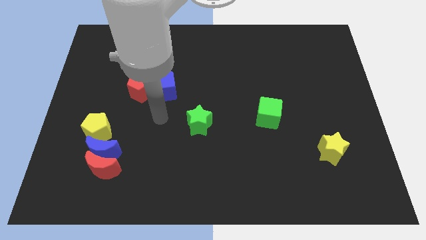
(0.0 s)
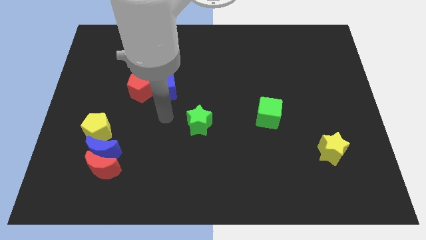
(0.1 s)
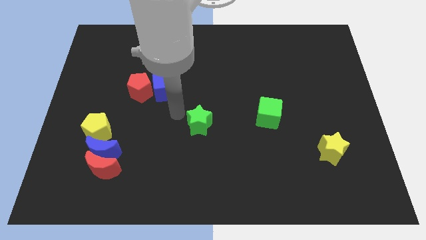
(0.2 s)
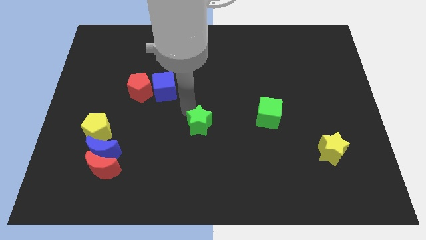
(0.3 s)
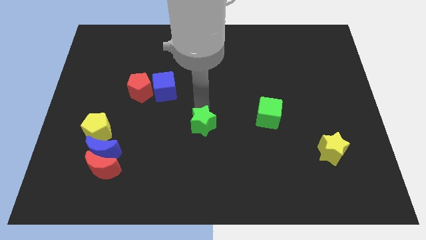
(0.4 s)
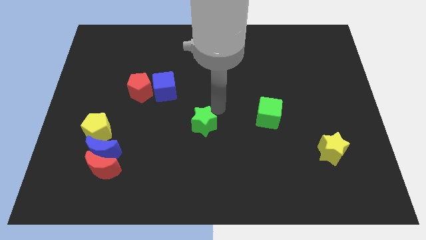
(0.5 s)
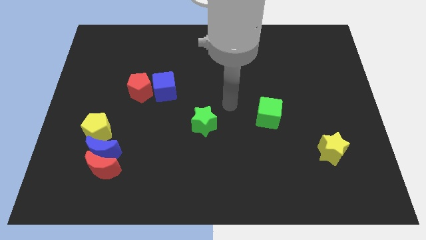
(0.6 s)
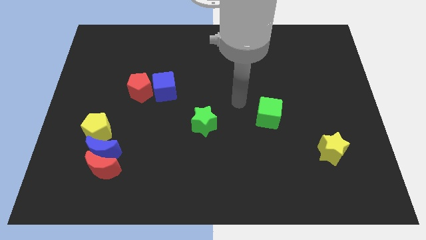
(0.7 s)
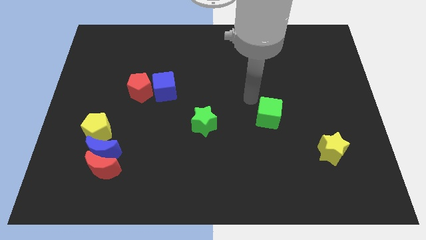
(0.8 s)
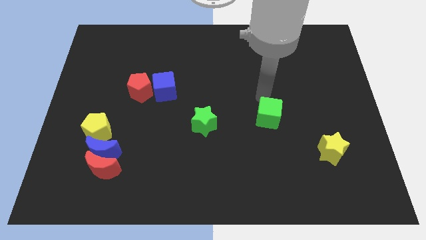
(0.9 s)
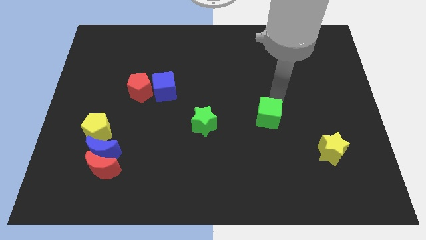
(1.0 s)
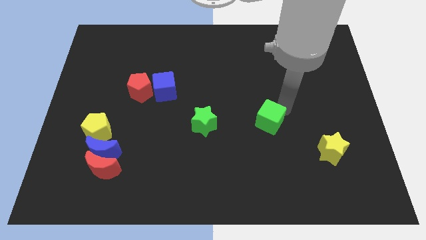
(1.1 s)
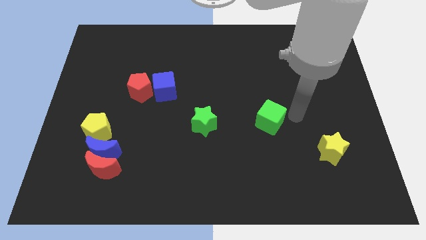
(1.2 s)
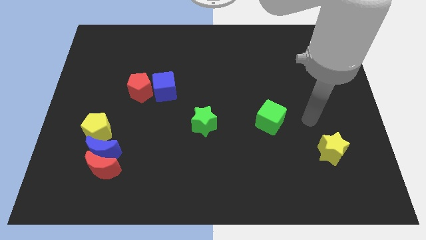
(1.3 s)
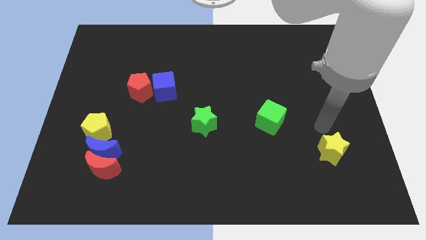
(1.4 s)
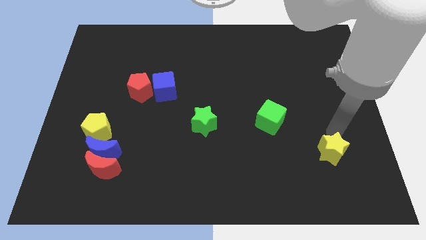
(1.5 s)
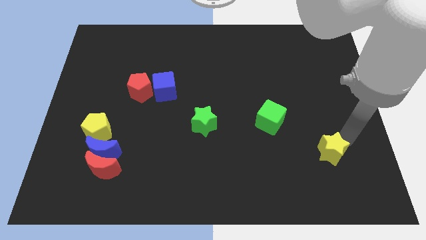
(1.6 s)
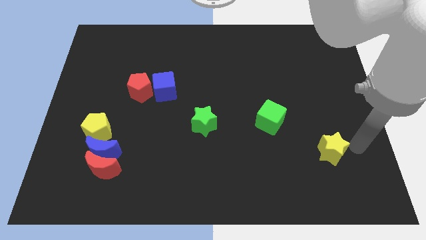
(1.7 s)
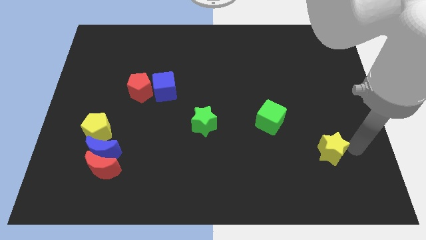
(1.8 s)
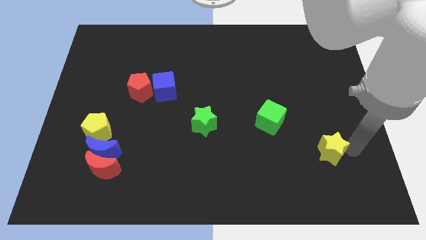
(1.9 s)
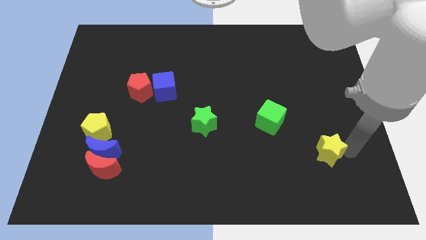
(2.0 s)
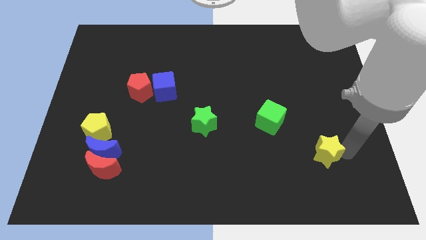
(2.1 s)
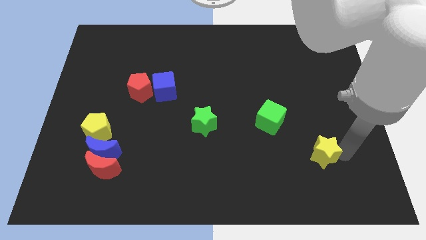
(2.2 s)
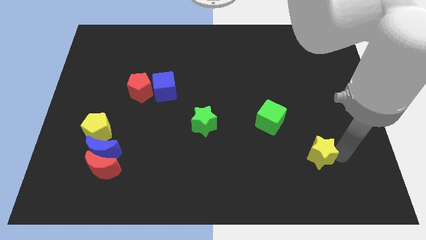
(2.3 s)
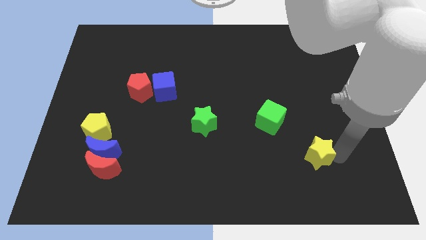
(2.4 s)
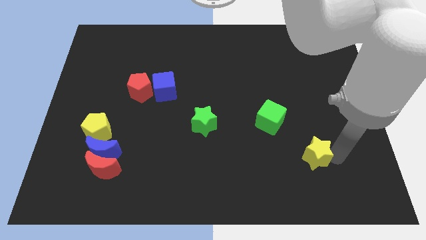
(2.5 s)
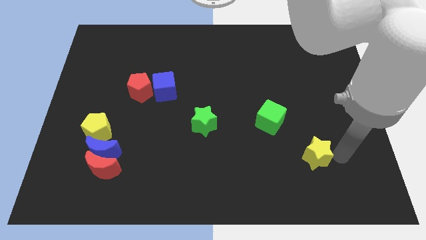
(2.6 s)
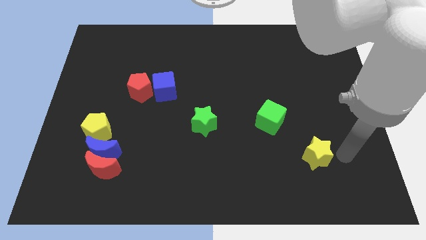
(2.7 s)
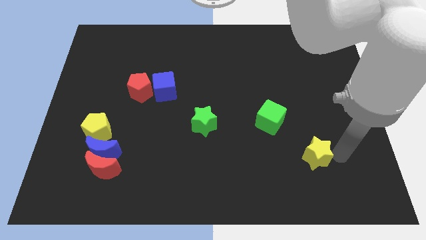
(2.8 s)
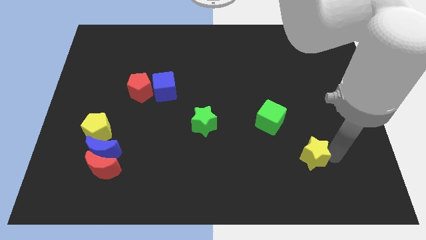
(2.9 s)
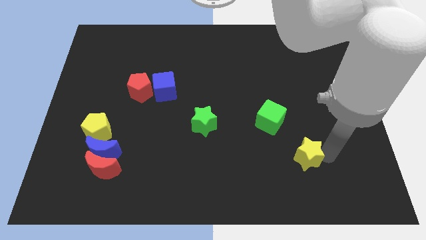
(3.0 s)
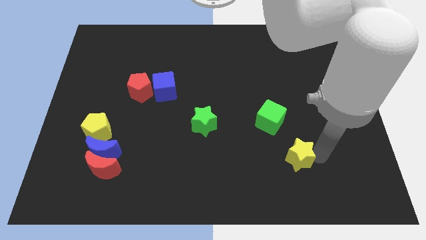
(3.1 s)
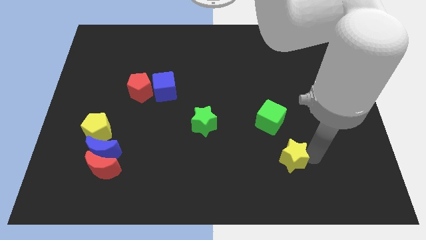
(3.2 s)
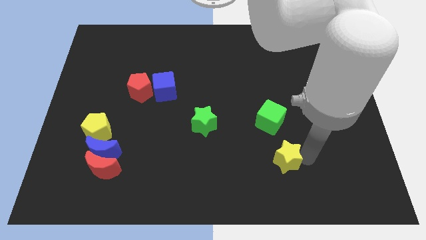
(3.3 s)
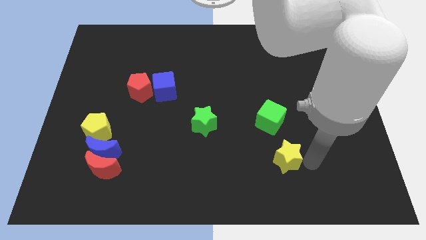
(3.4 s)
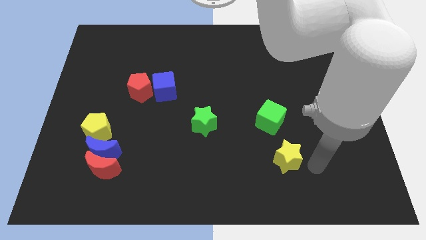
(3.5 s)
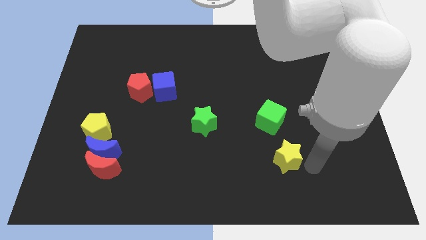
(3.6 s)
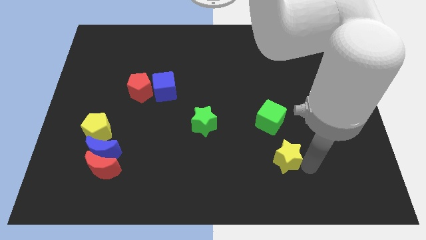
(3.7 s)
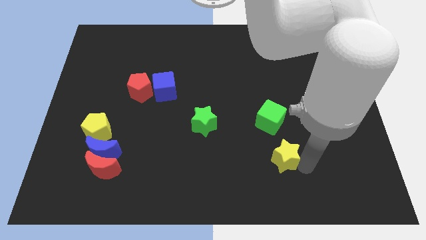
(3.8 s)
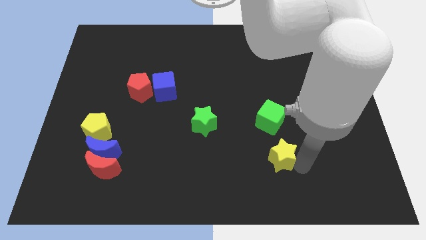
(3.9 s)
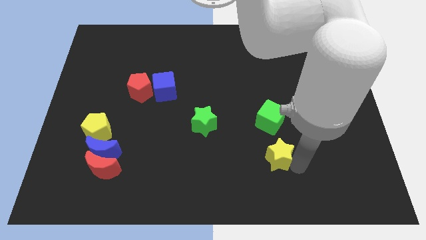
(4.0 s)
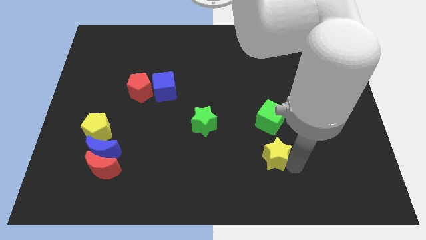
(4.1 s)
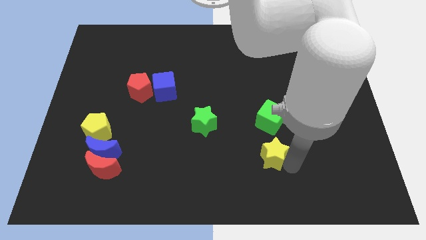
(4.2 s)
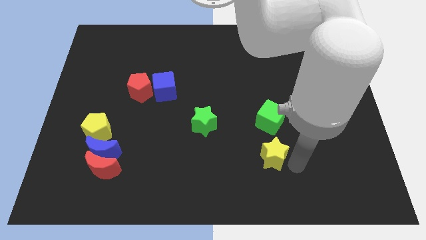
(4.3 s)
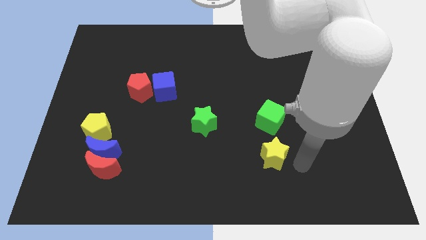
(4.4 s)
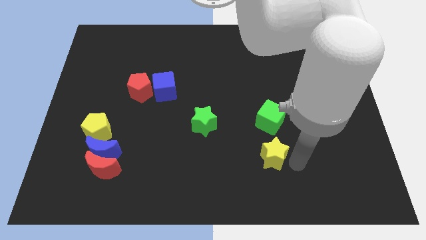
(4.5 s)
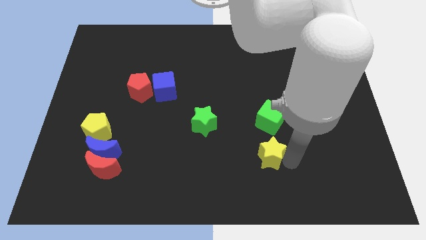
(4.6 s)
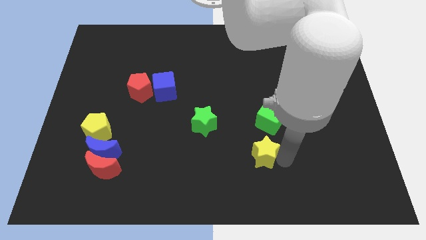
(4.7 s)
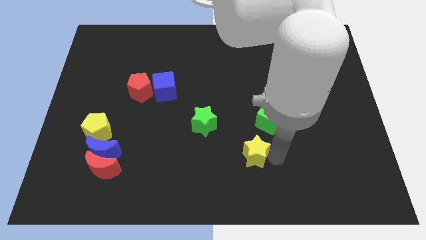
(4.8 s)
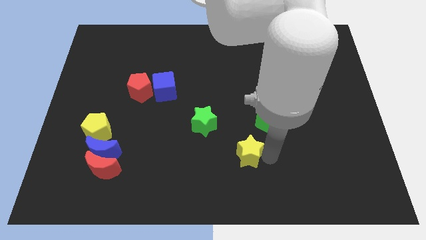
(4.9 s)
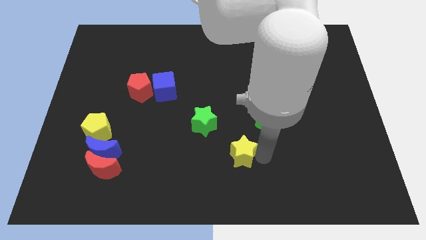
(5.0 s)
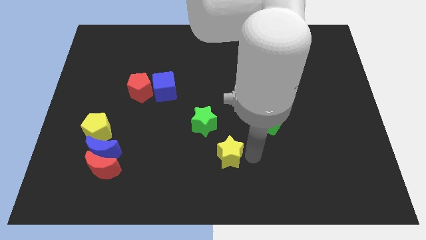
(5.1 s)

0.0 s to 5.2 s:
slide the yellow star to the left

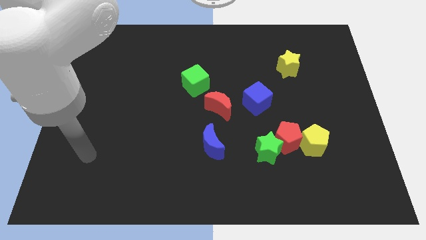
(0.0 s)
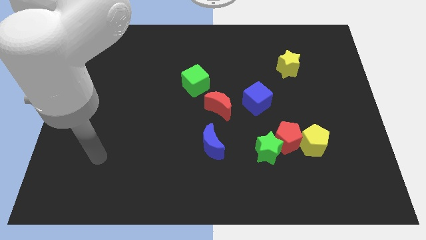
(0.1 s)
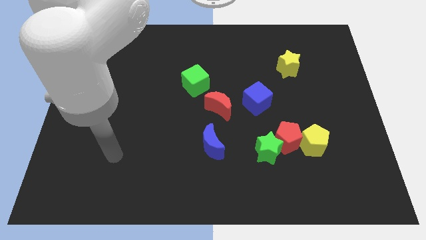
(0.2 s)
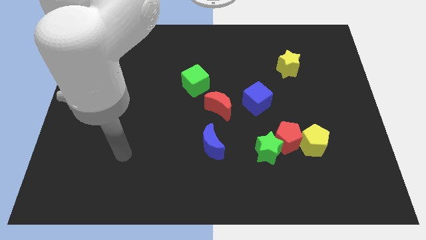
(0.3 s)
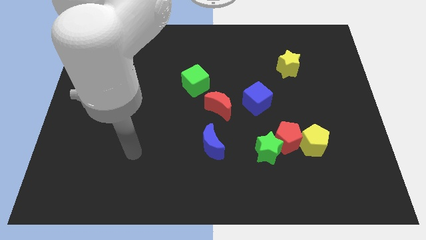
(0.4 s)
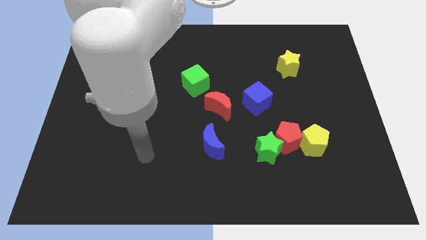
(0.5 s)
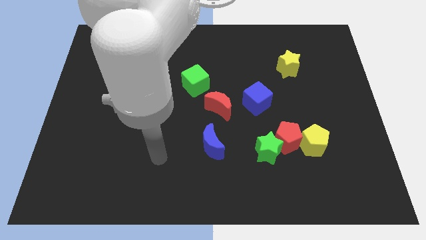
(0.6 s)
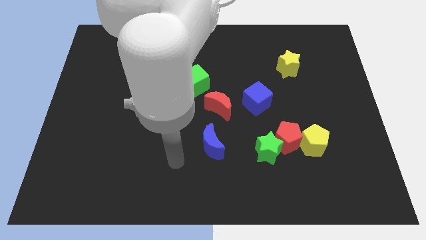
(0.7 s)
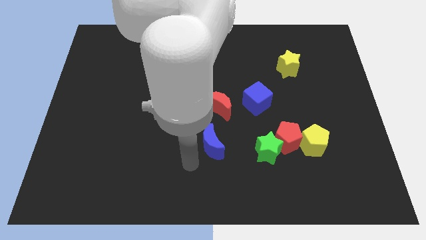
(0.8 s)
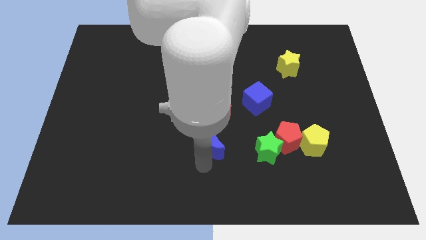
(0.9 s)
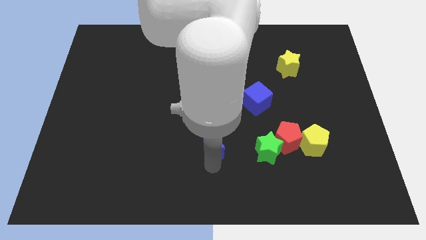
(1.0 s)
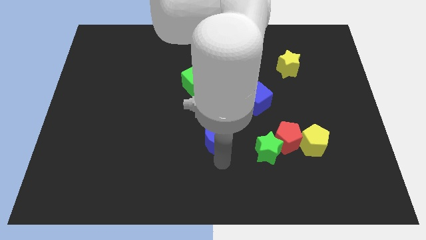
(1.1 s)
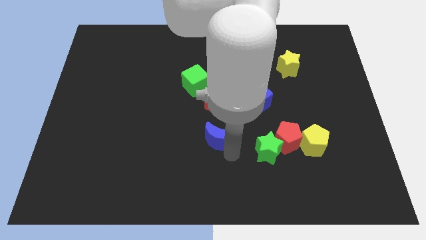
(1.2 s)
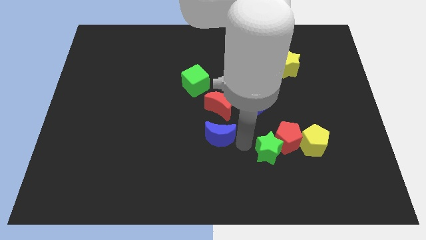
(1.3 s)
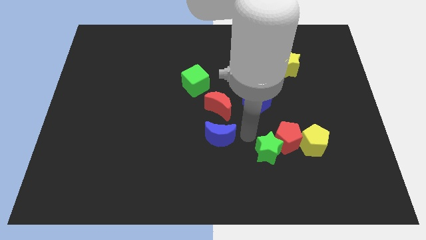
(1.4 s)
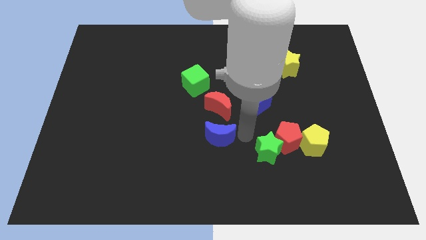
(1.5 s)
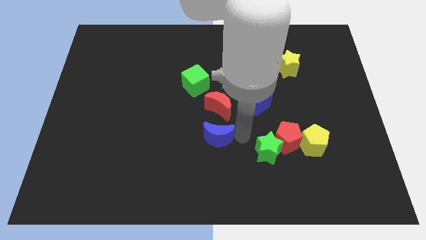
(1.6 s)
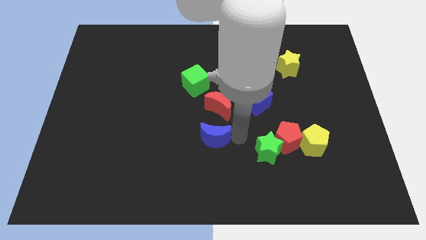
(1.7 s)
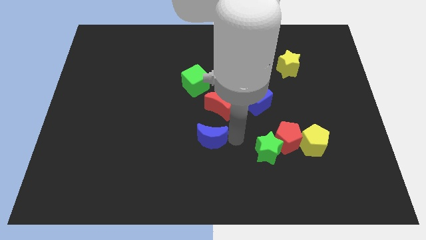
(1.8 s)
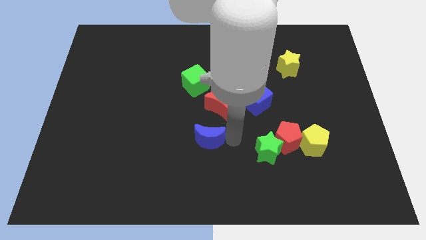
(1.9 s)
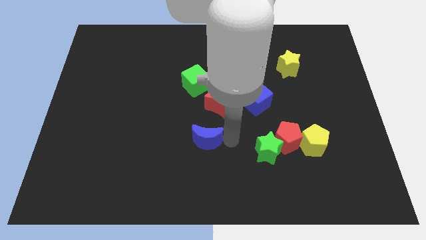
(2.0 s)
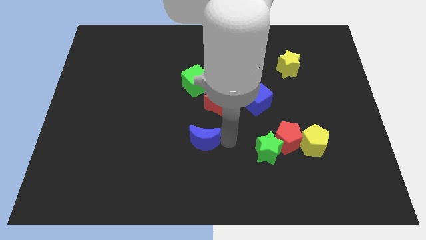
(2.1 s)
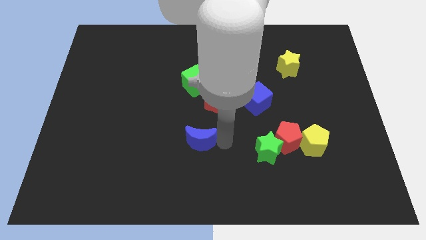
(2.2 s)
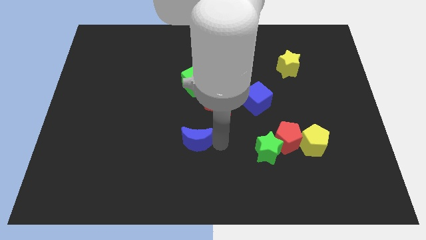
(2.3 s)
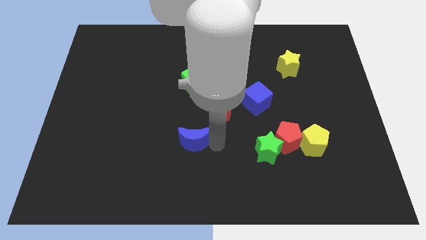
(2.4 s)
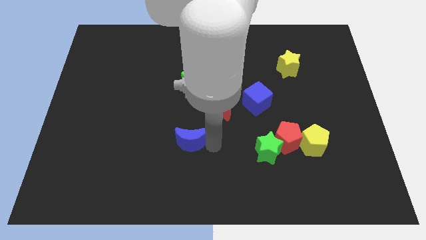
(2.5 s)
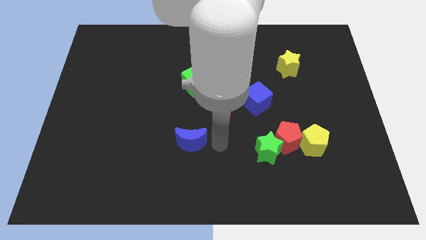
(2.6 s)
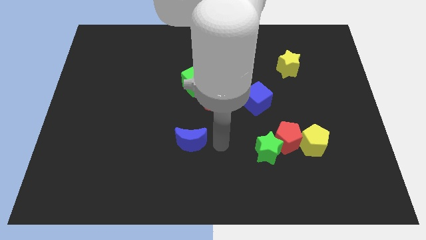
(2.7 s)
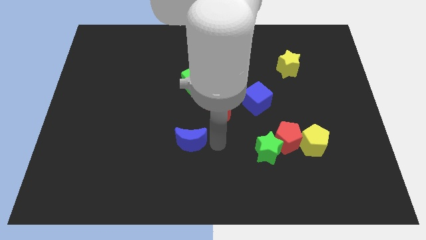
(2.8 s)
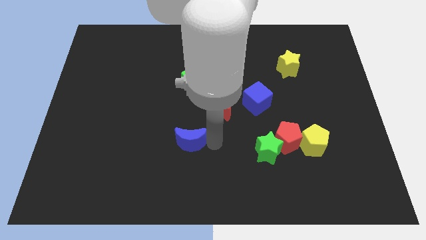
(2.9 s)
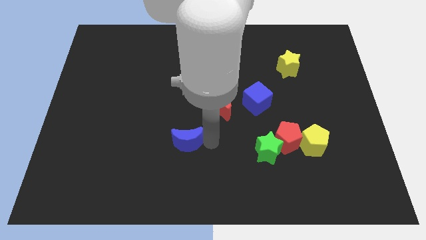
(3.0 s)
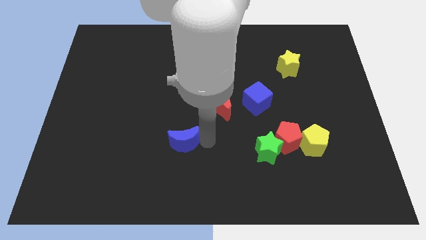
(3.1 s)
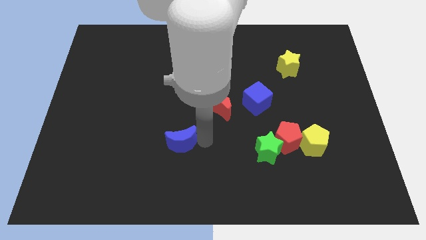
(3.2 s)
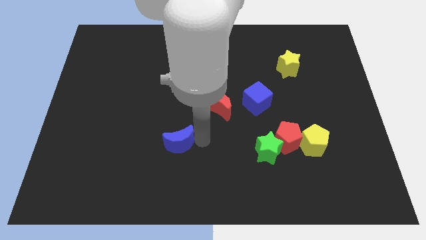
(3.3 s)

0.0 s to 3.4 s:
push the blue moon left a bit
